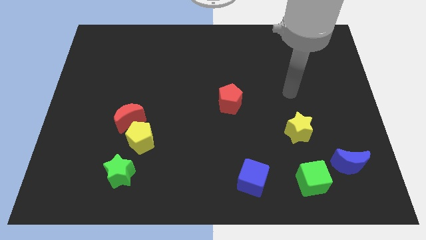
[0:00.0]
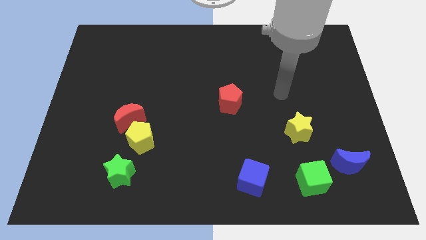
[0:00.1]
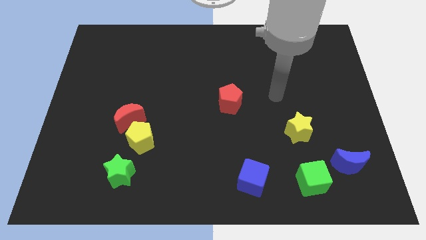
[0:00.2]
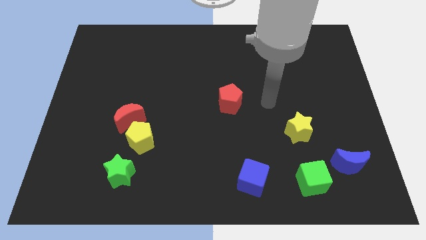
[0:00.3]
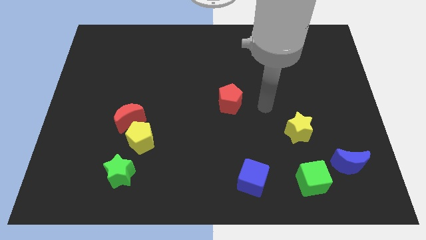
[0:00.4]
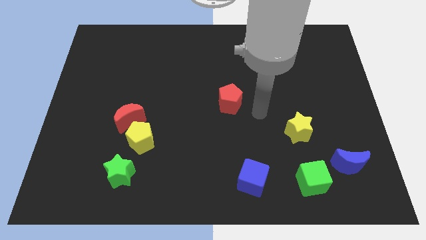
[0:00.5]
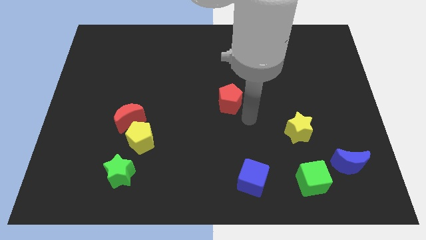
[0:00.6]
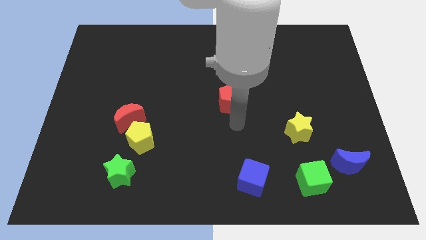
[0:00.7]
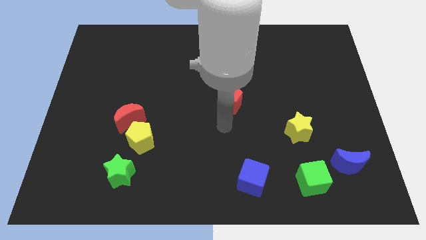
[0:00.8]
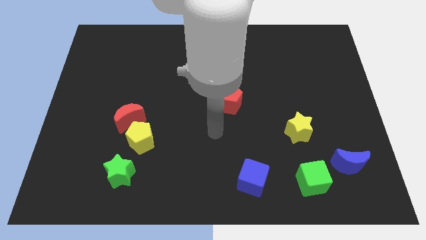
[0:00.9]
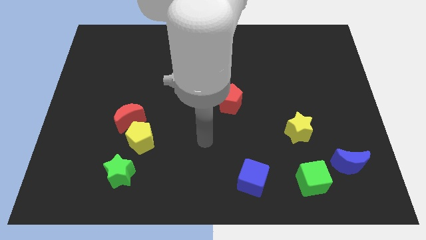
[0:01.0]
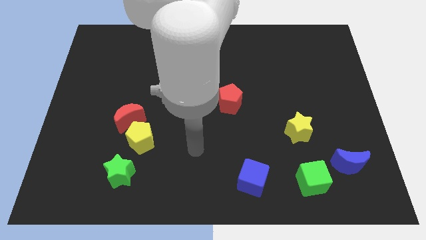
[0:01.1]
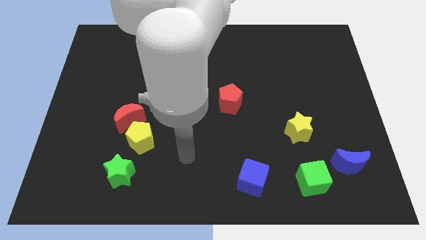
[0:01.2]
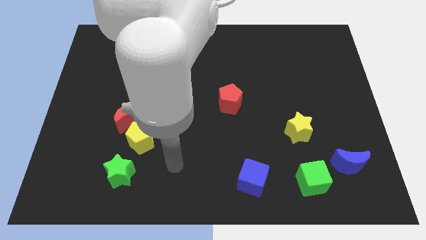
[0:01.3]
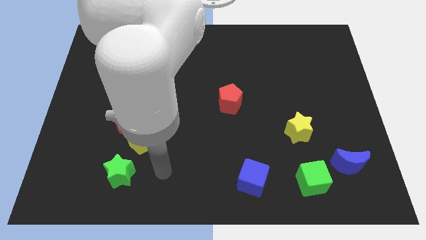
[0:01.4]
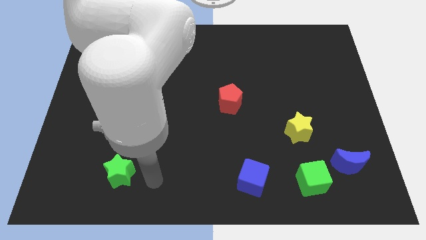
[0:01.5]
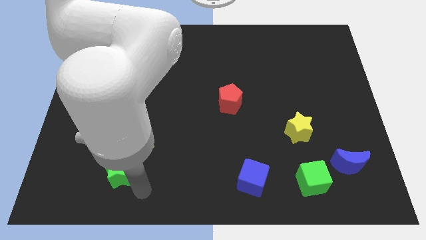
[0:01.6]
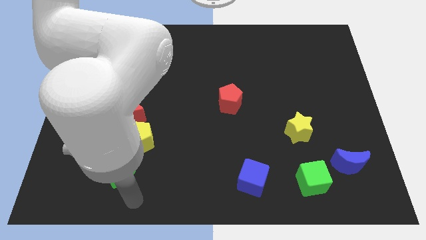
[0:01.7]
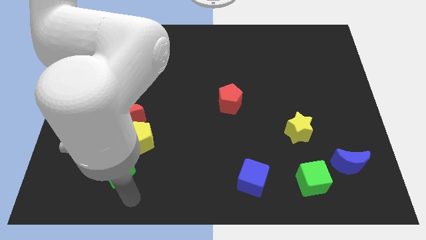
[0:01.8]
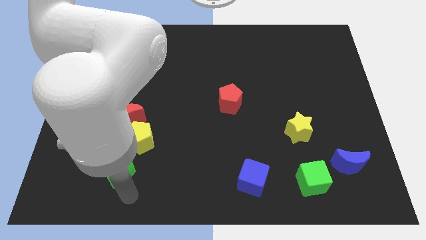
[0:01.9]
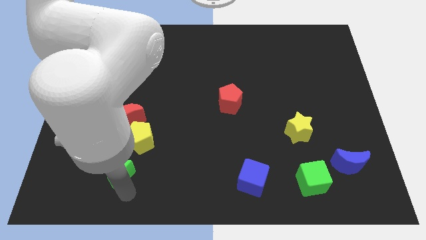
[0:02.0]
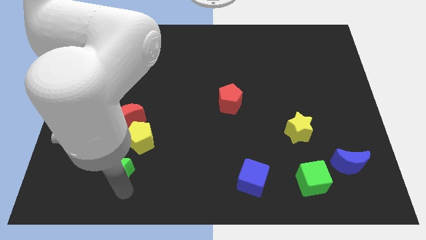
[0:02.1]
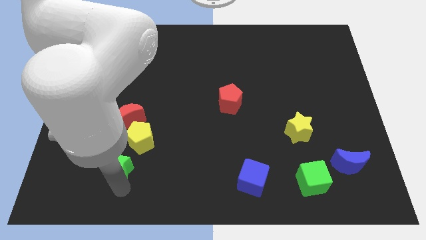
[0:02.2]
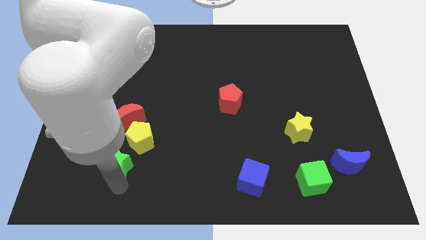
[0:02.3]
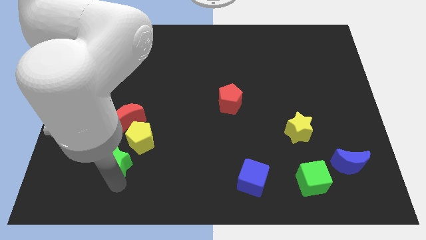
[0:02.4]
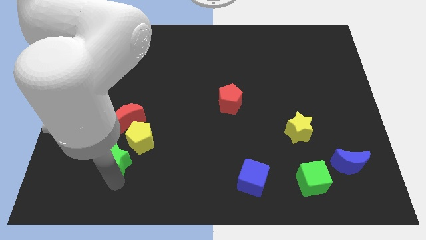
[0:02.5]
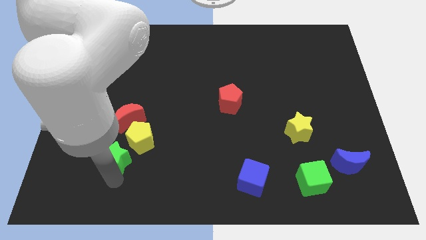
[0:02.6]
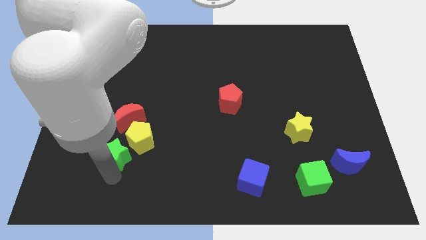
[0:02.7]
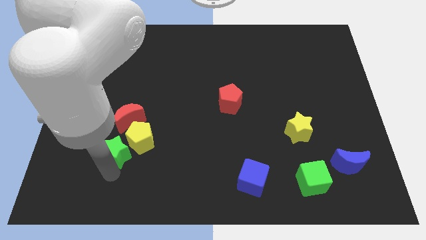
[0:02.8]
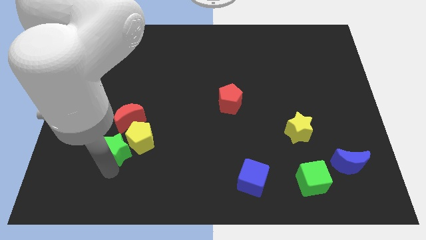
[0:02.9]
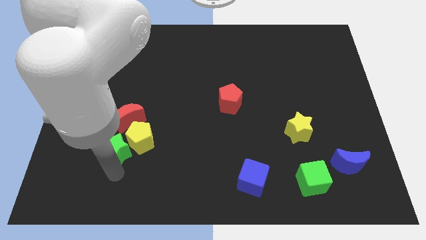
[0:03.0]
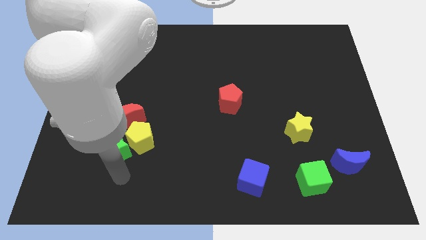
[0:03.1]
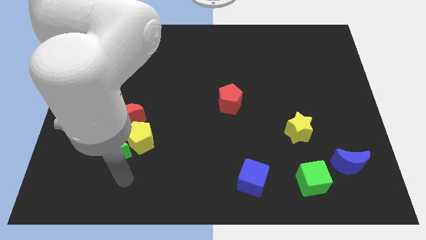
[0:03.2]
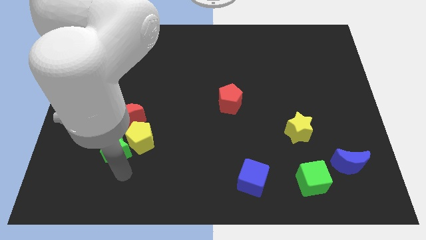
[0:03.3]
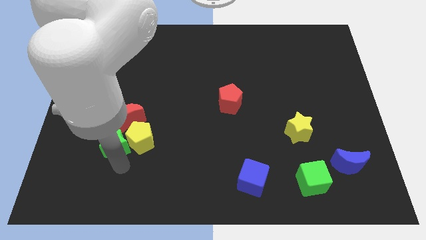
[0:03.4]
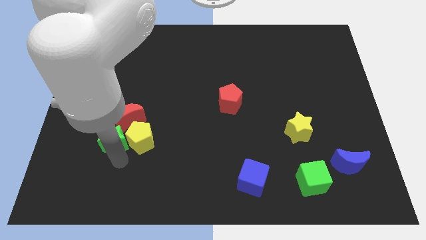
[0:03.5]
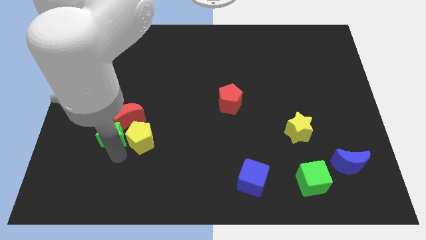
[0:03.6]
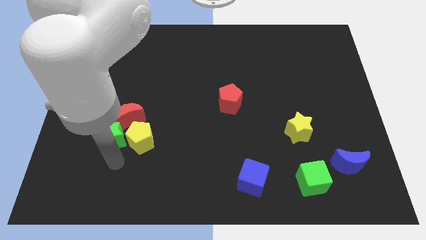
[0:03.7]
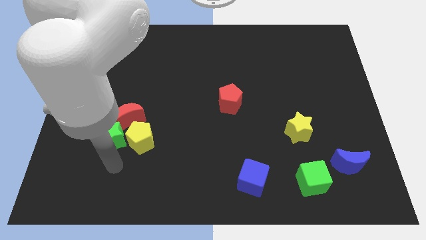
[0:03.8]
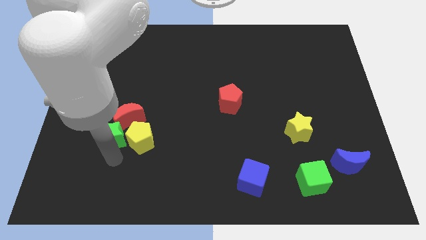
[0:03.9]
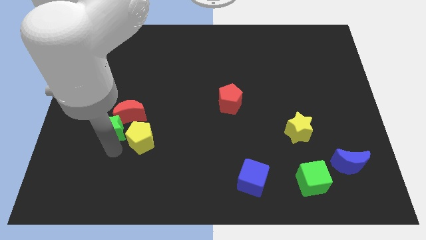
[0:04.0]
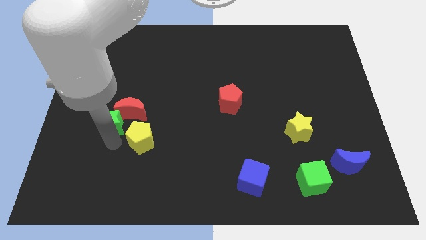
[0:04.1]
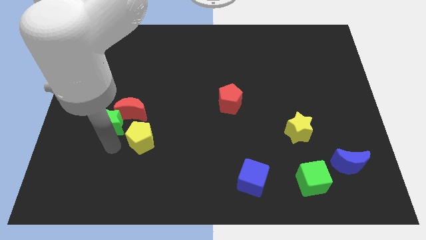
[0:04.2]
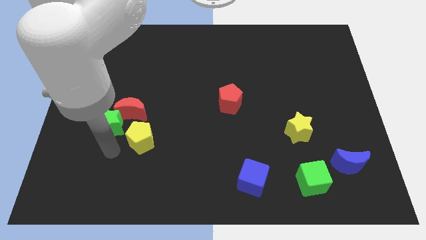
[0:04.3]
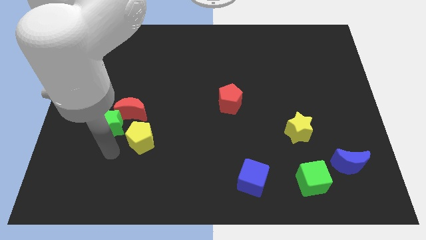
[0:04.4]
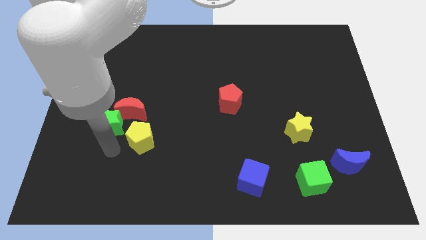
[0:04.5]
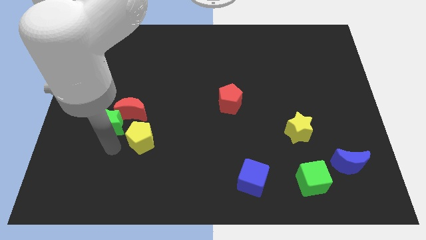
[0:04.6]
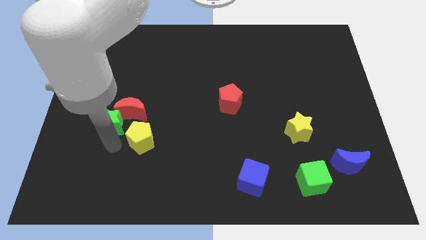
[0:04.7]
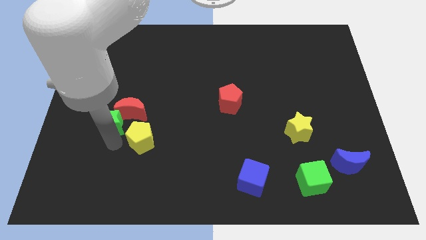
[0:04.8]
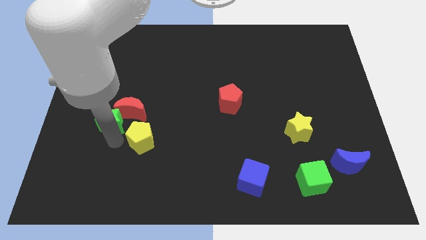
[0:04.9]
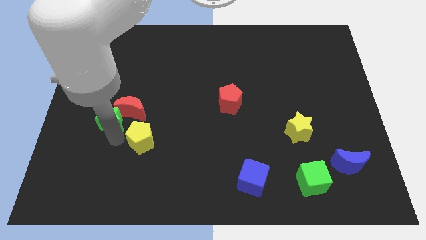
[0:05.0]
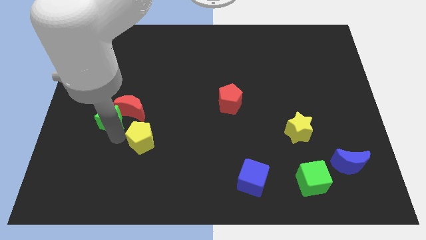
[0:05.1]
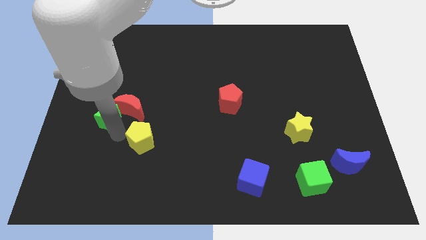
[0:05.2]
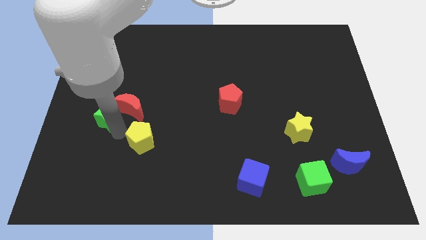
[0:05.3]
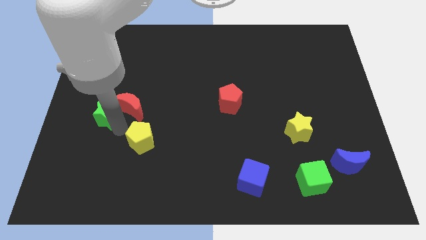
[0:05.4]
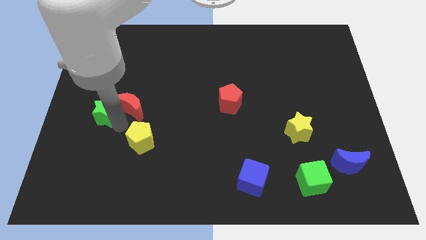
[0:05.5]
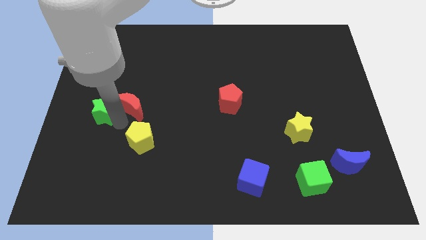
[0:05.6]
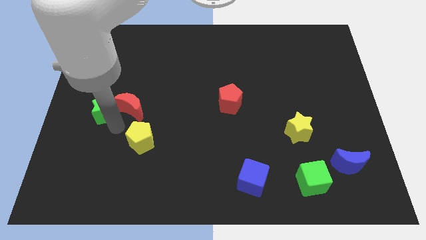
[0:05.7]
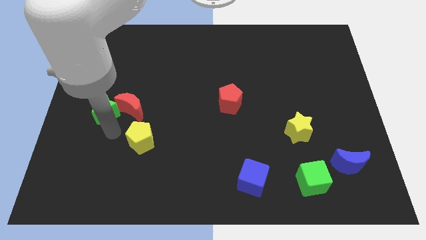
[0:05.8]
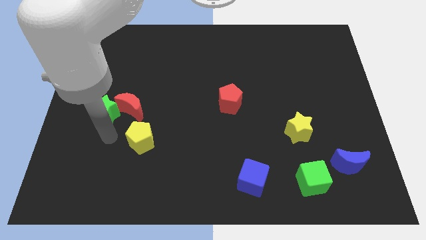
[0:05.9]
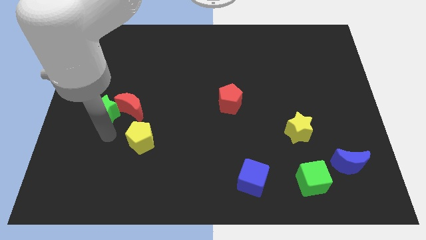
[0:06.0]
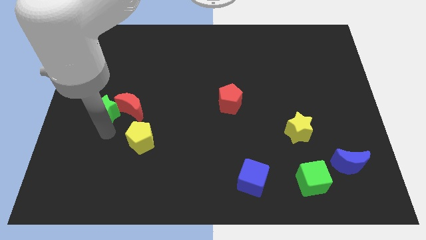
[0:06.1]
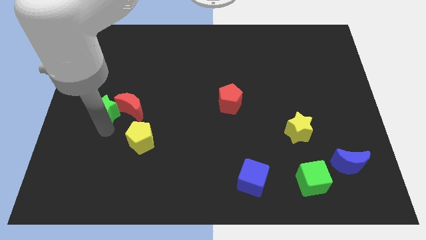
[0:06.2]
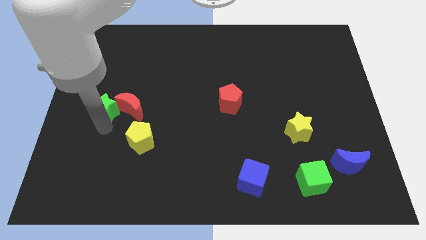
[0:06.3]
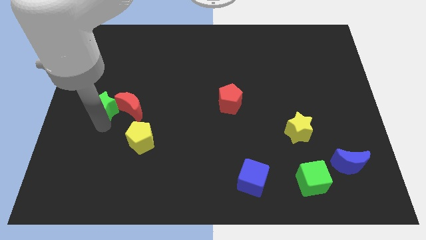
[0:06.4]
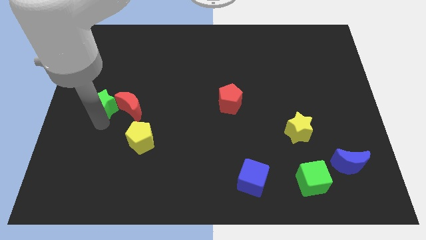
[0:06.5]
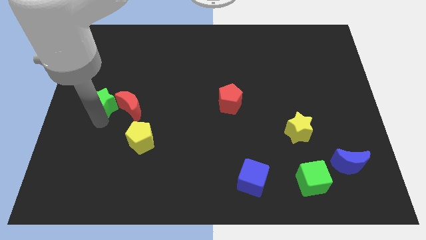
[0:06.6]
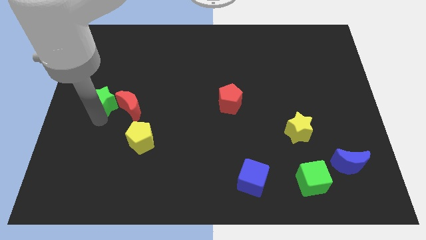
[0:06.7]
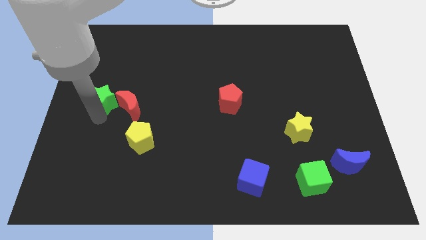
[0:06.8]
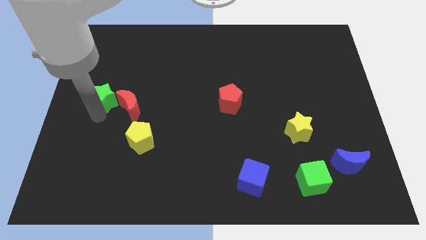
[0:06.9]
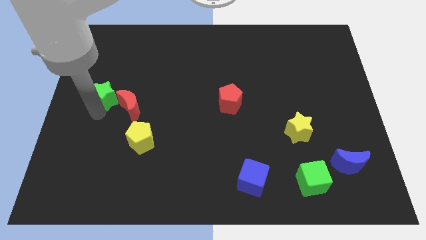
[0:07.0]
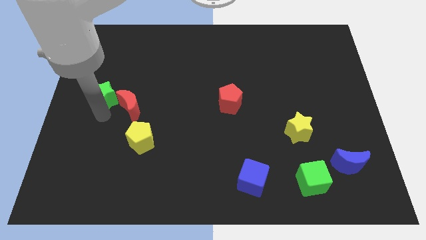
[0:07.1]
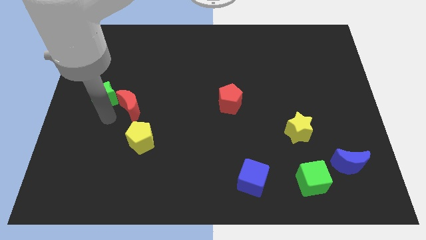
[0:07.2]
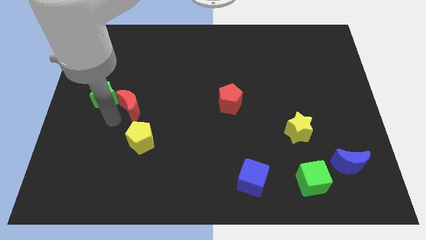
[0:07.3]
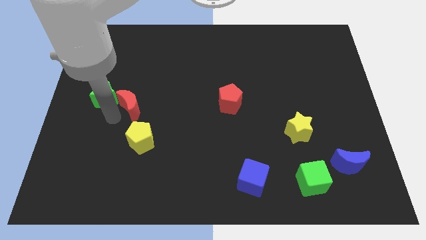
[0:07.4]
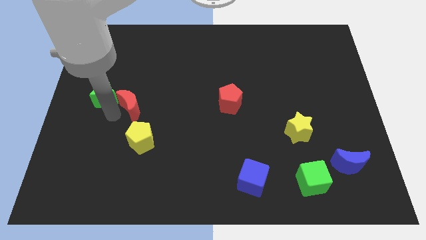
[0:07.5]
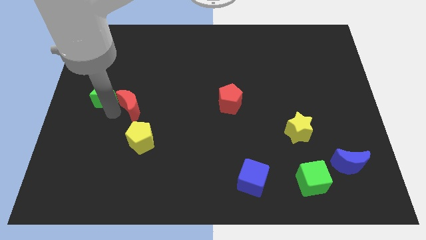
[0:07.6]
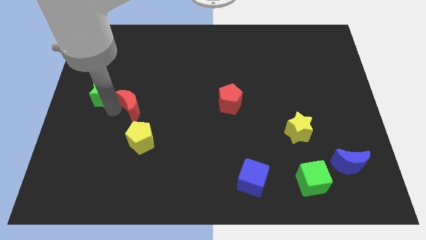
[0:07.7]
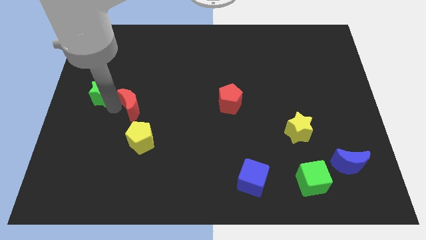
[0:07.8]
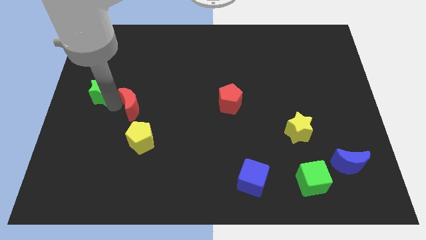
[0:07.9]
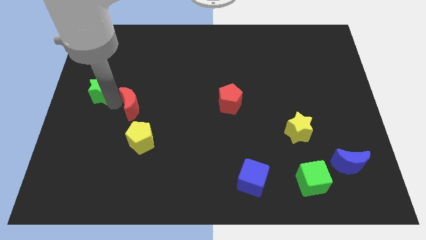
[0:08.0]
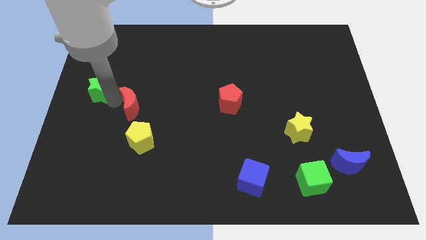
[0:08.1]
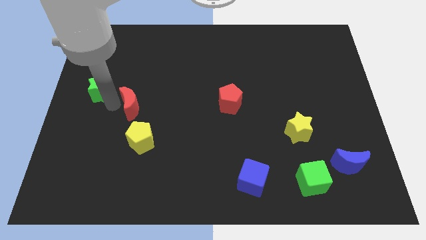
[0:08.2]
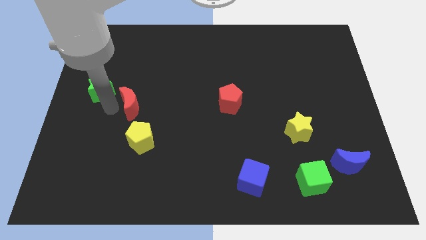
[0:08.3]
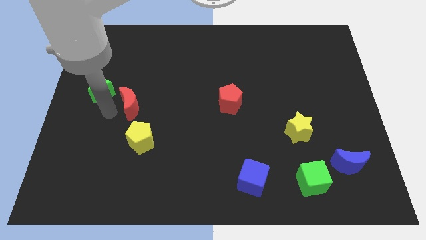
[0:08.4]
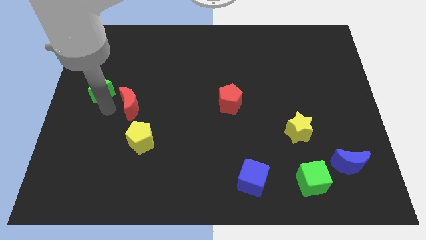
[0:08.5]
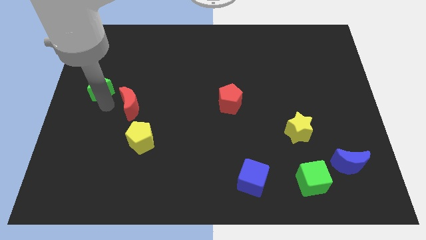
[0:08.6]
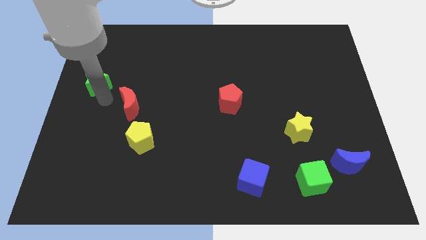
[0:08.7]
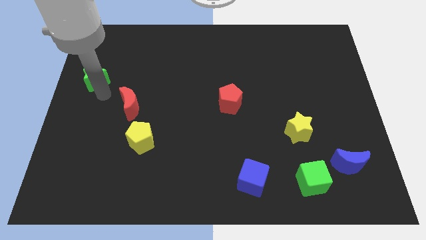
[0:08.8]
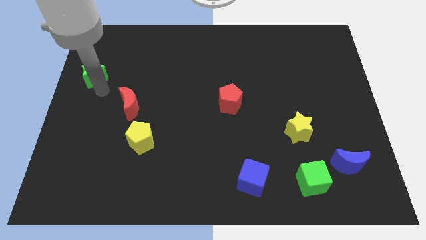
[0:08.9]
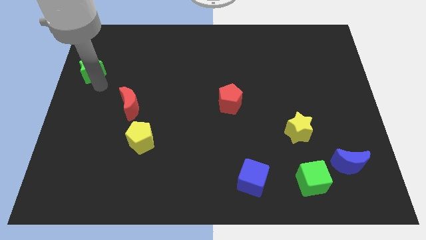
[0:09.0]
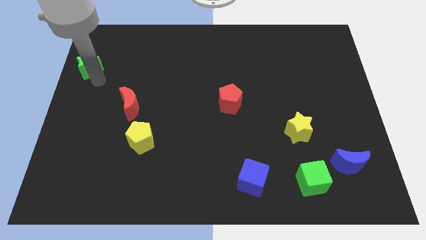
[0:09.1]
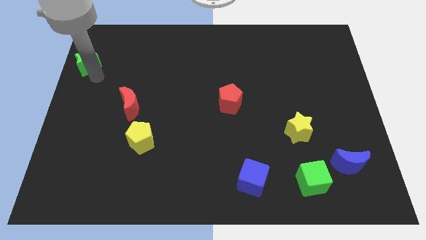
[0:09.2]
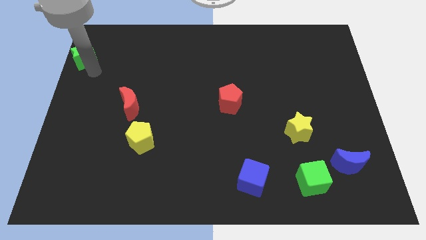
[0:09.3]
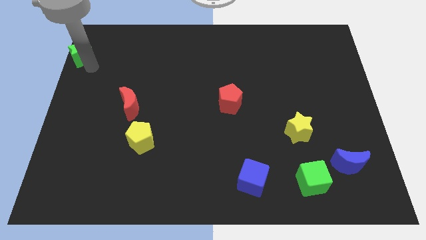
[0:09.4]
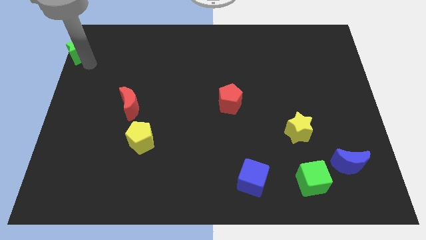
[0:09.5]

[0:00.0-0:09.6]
put the green star to the top left of the board
